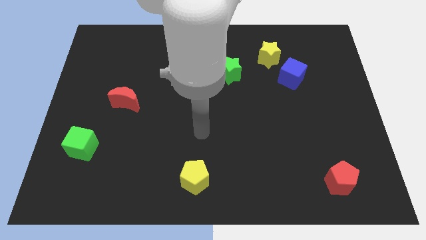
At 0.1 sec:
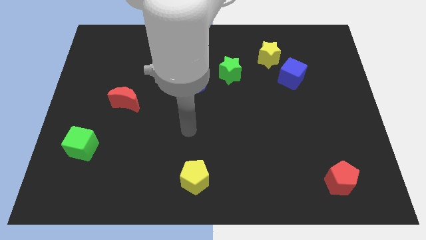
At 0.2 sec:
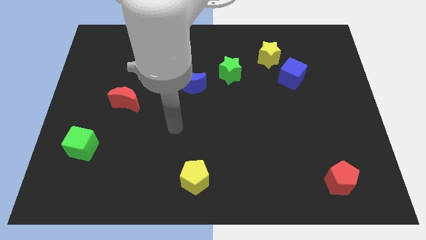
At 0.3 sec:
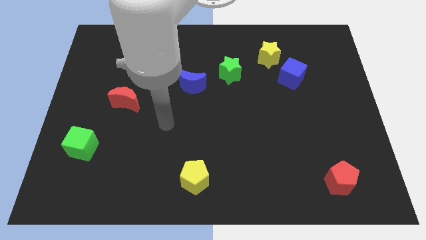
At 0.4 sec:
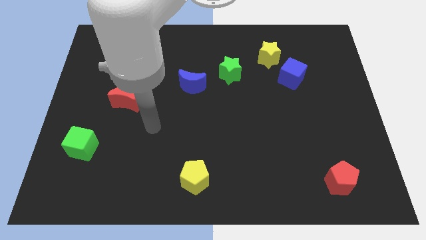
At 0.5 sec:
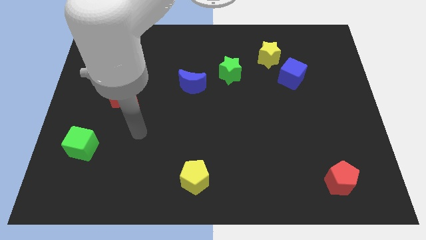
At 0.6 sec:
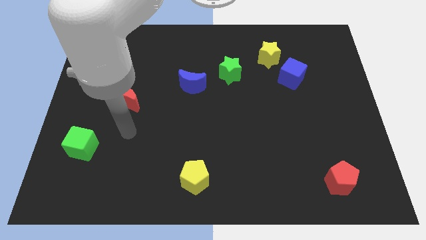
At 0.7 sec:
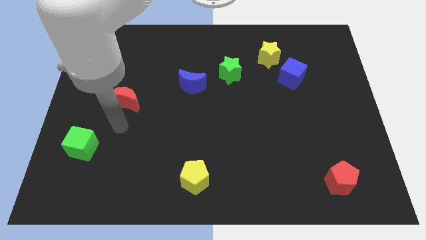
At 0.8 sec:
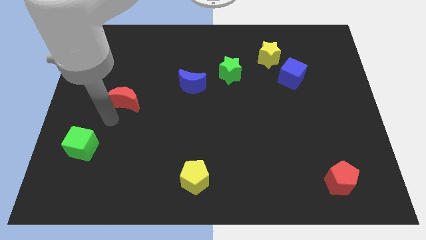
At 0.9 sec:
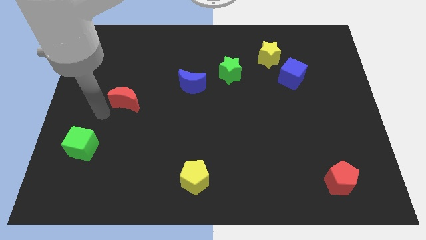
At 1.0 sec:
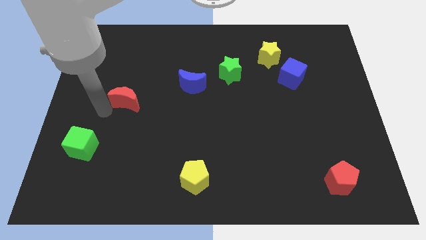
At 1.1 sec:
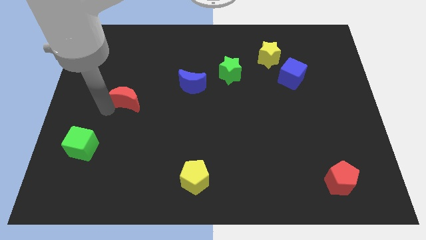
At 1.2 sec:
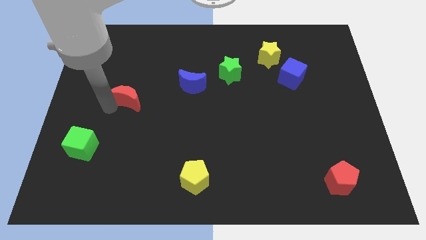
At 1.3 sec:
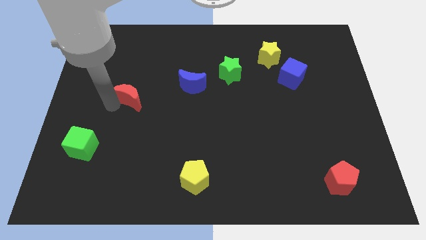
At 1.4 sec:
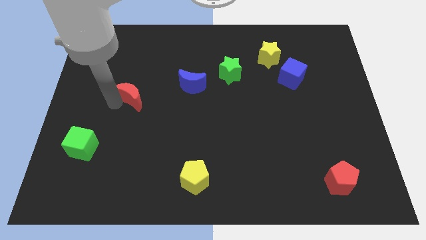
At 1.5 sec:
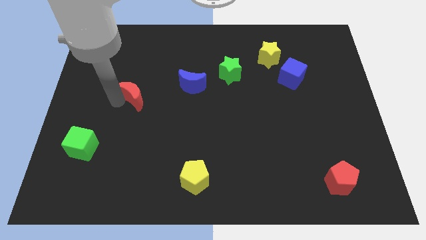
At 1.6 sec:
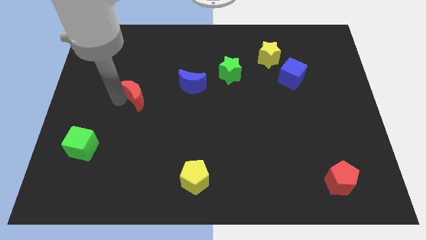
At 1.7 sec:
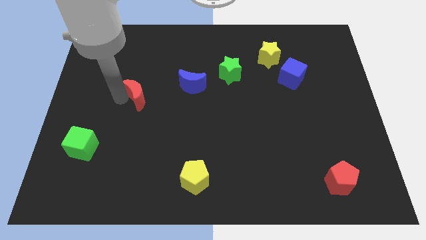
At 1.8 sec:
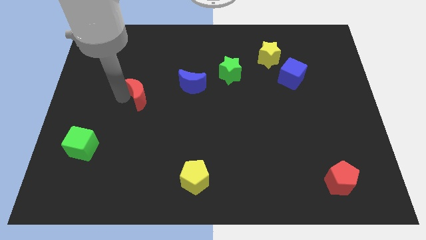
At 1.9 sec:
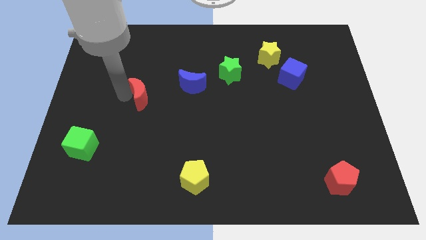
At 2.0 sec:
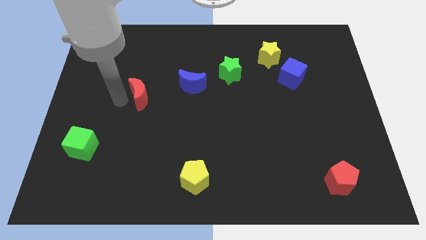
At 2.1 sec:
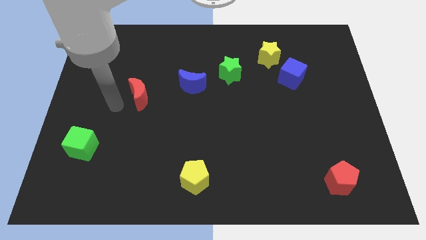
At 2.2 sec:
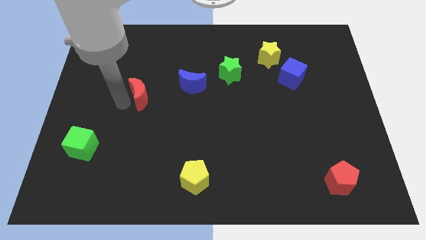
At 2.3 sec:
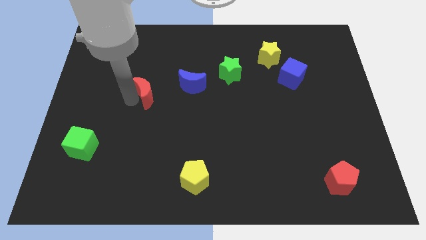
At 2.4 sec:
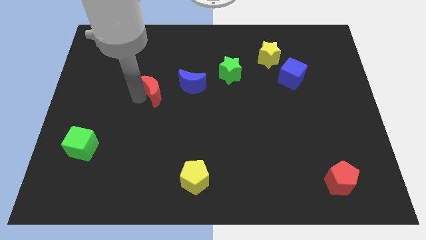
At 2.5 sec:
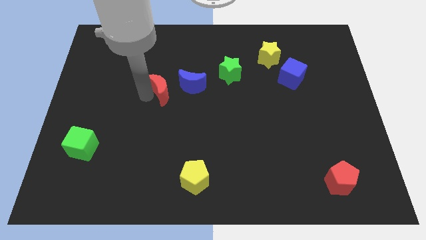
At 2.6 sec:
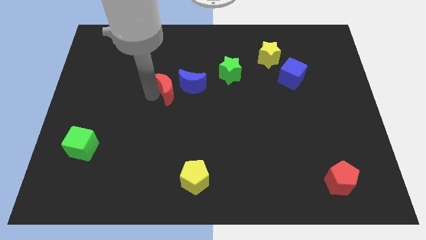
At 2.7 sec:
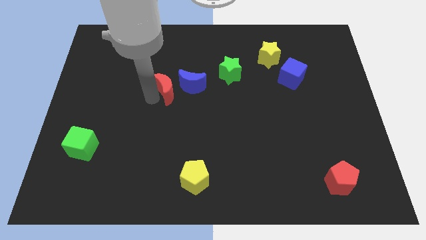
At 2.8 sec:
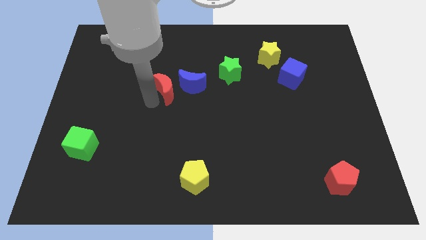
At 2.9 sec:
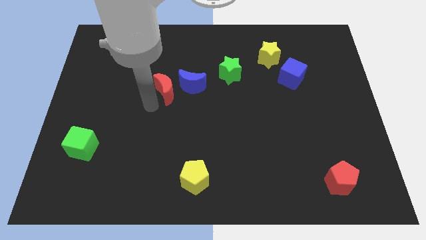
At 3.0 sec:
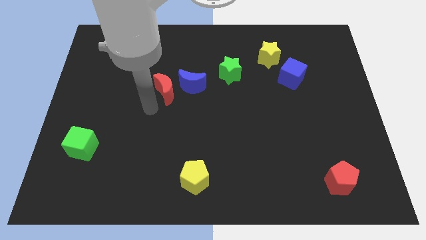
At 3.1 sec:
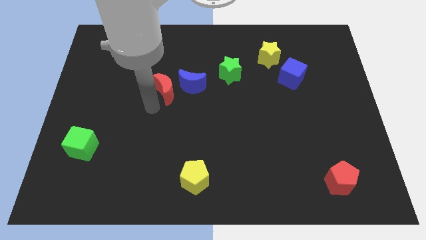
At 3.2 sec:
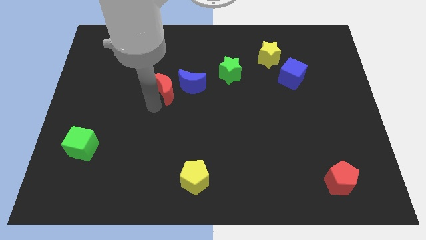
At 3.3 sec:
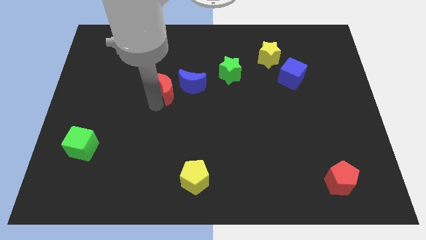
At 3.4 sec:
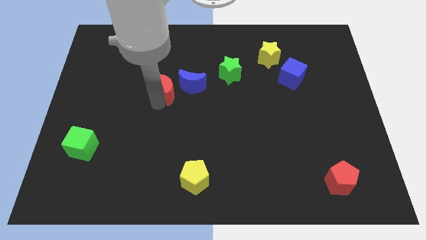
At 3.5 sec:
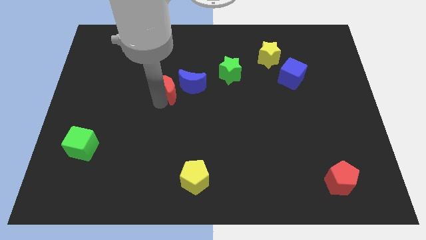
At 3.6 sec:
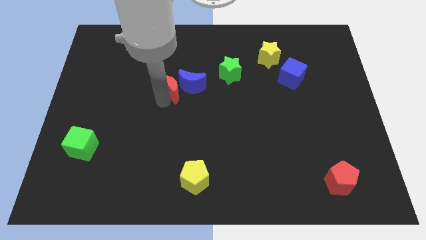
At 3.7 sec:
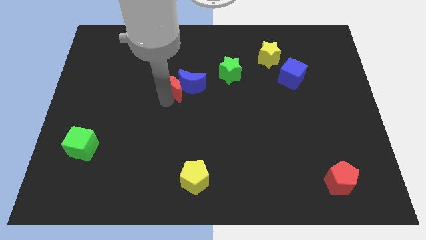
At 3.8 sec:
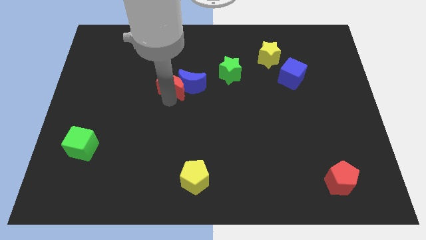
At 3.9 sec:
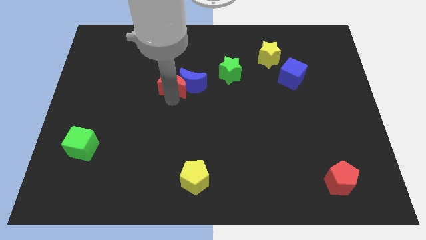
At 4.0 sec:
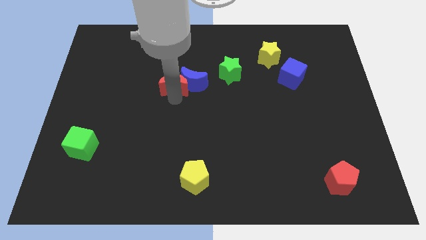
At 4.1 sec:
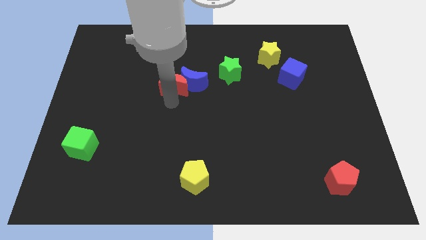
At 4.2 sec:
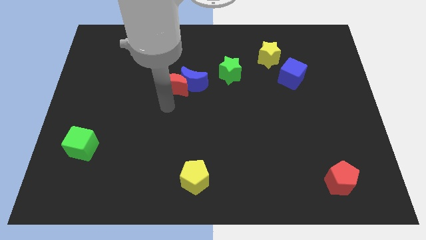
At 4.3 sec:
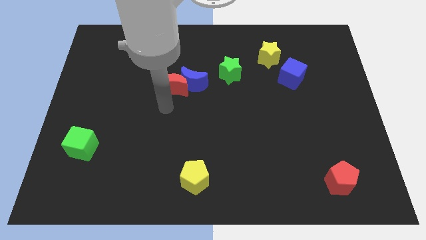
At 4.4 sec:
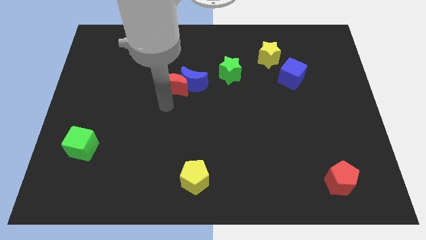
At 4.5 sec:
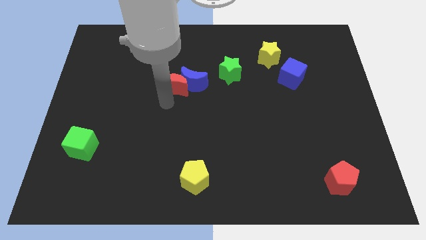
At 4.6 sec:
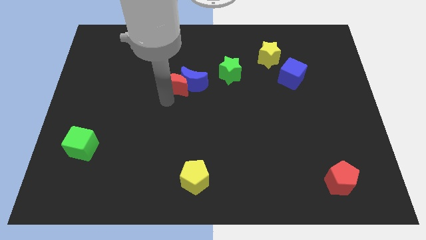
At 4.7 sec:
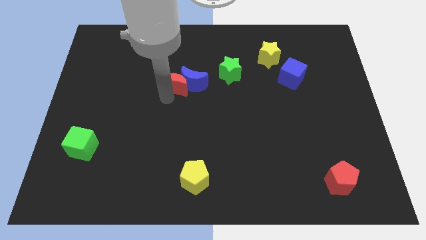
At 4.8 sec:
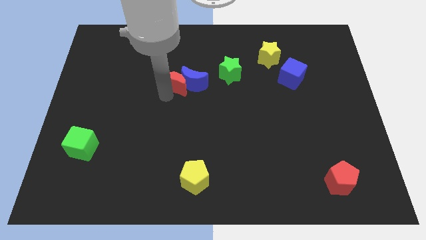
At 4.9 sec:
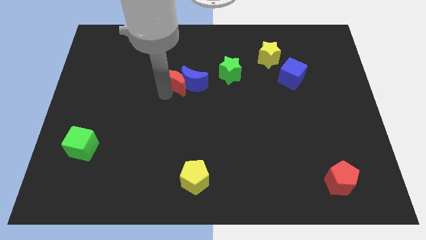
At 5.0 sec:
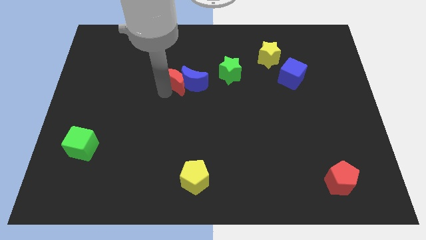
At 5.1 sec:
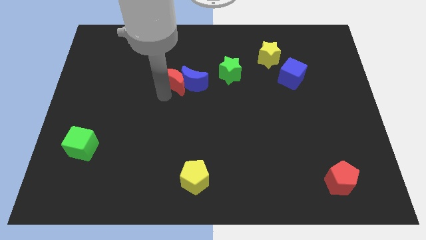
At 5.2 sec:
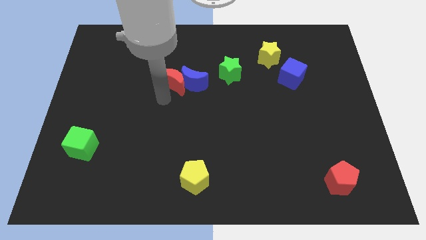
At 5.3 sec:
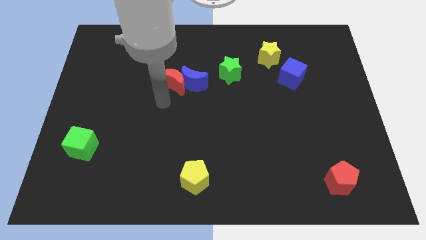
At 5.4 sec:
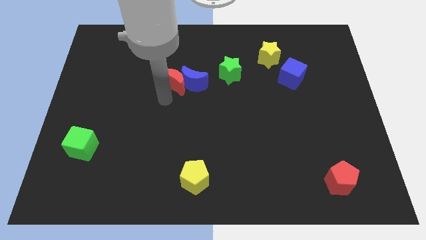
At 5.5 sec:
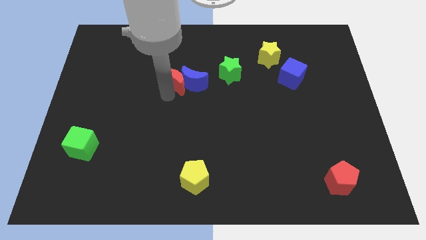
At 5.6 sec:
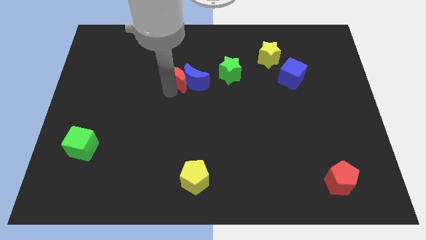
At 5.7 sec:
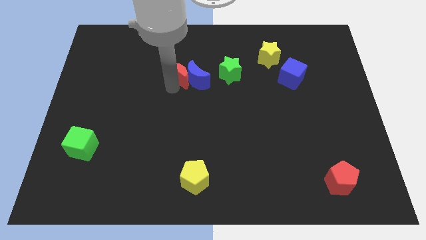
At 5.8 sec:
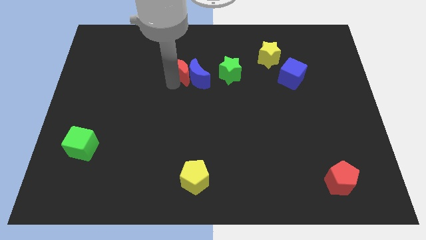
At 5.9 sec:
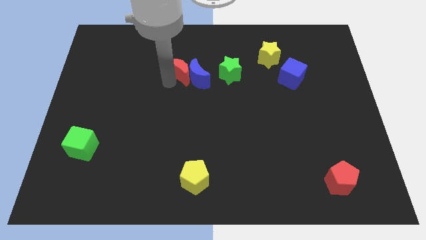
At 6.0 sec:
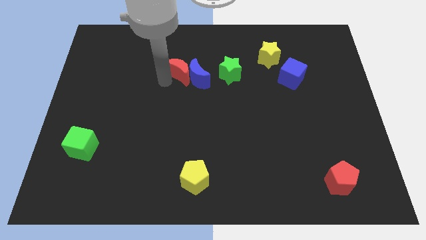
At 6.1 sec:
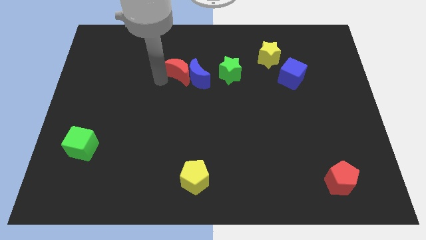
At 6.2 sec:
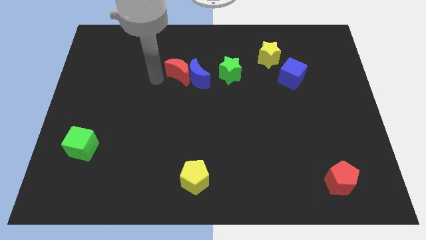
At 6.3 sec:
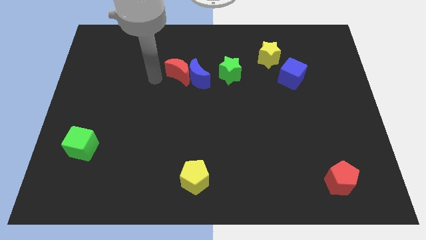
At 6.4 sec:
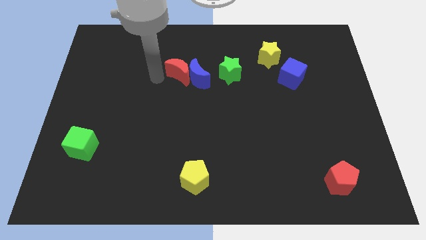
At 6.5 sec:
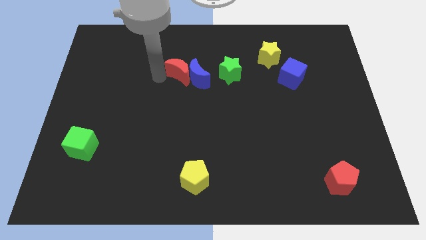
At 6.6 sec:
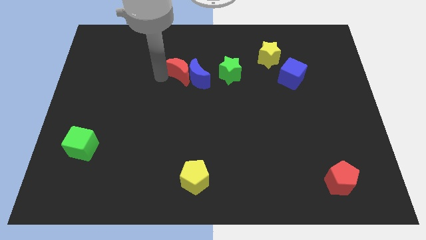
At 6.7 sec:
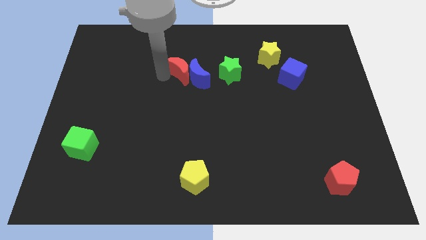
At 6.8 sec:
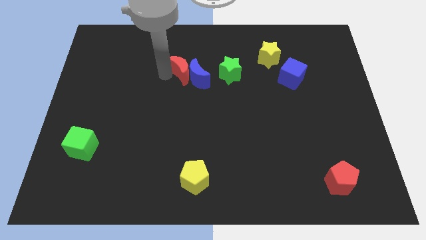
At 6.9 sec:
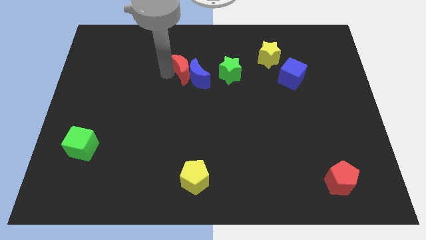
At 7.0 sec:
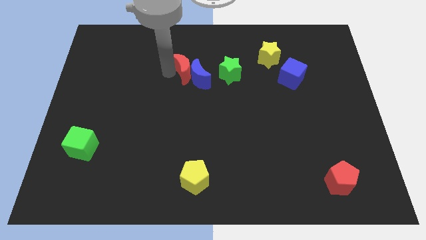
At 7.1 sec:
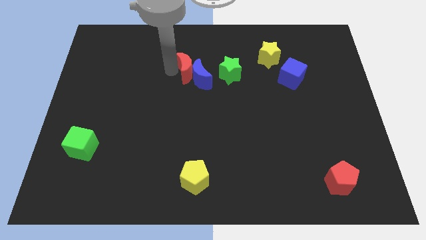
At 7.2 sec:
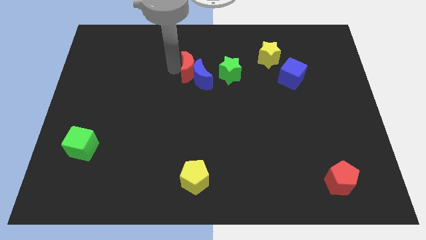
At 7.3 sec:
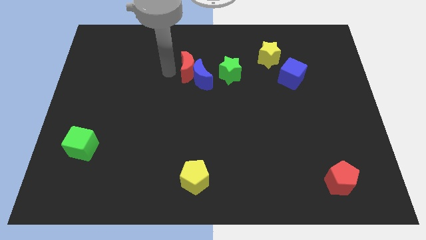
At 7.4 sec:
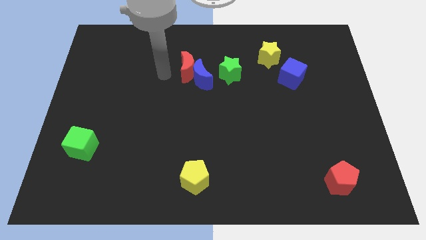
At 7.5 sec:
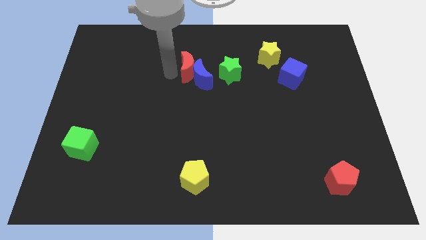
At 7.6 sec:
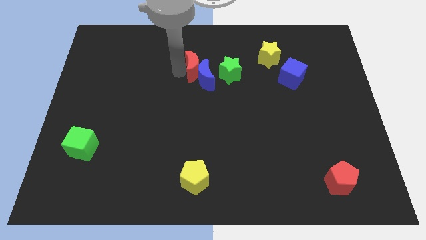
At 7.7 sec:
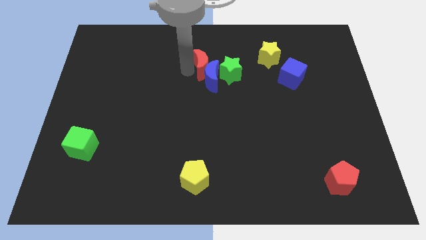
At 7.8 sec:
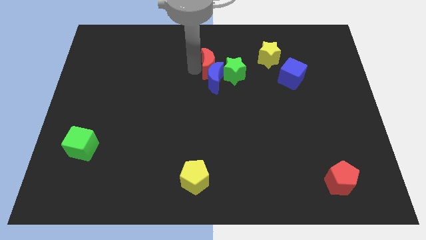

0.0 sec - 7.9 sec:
push the red moon to the top right of the blue moon
